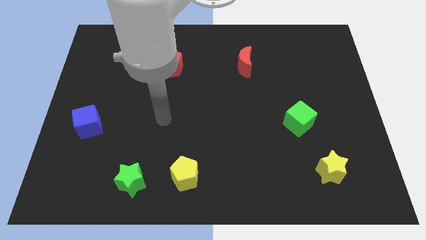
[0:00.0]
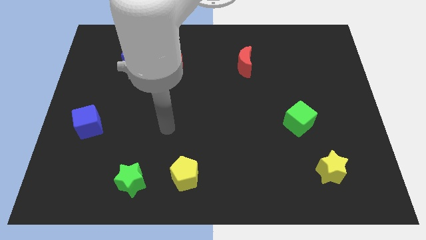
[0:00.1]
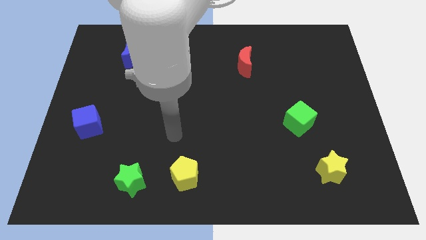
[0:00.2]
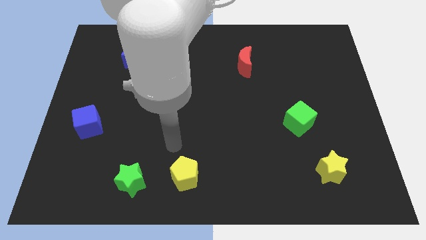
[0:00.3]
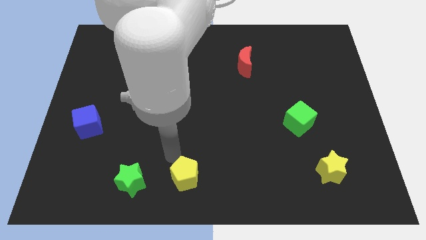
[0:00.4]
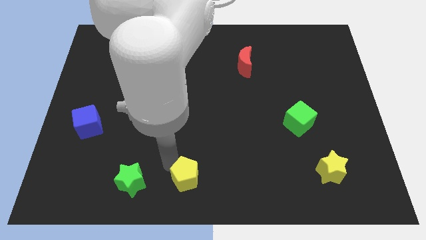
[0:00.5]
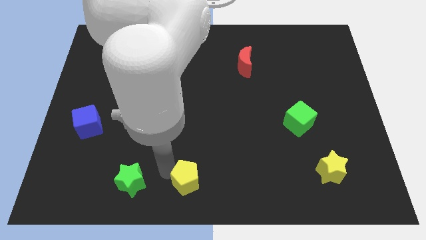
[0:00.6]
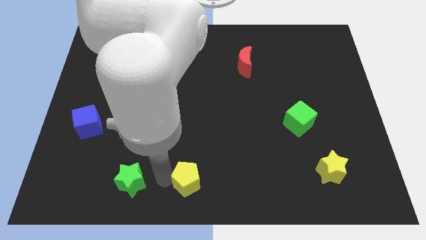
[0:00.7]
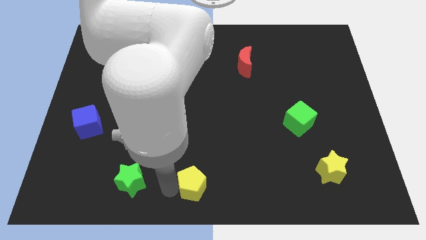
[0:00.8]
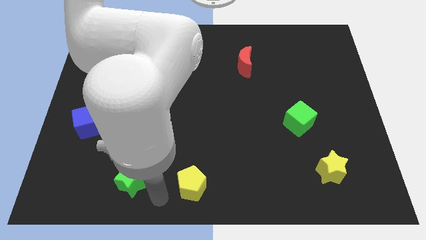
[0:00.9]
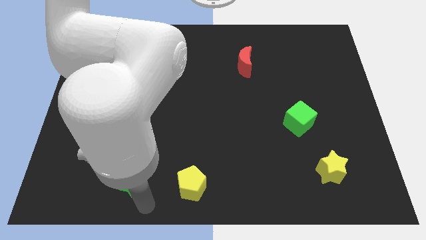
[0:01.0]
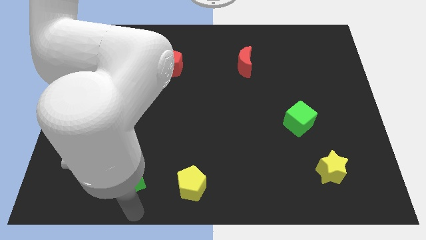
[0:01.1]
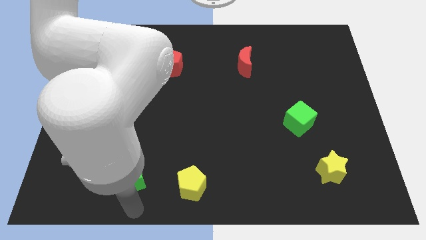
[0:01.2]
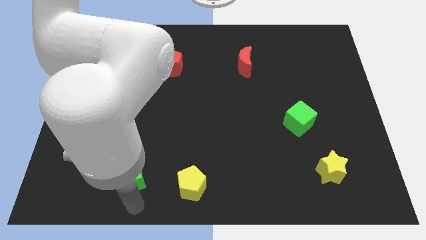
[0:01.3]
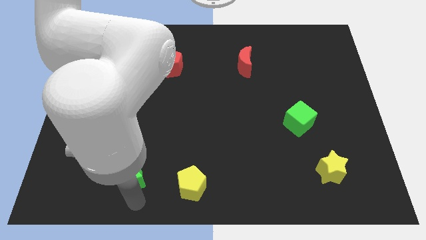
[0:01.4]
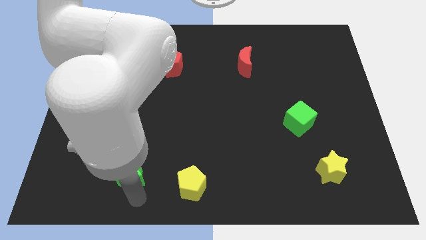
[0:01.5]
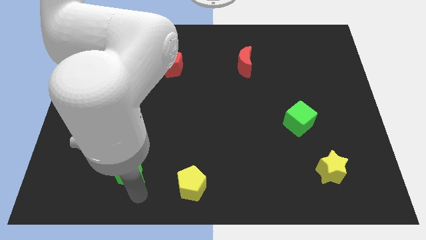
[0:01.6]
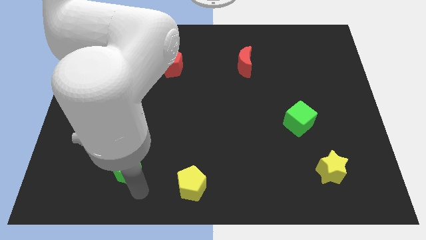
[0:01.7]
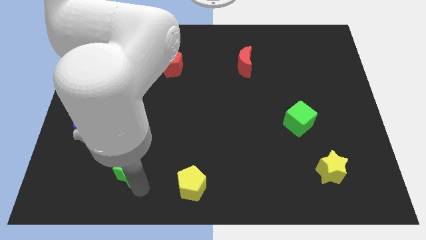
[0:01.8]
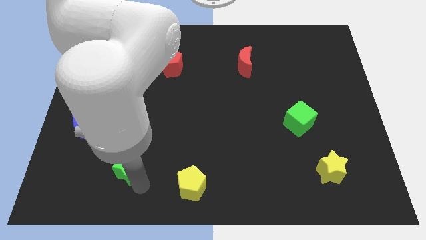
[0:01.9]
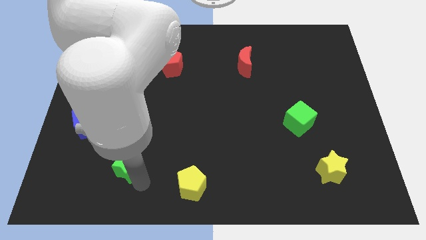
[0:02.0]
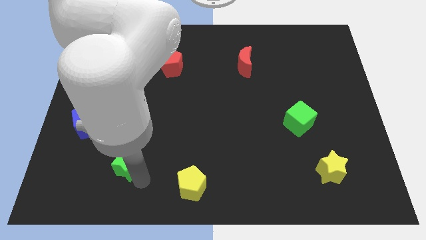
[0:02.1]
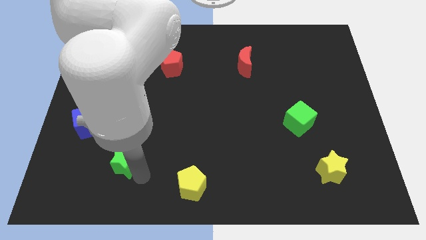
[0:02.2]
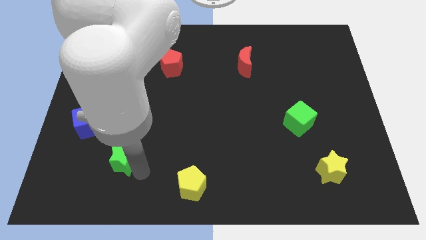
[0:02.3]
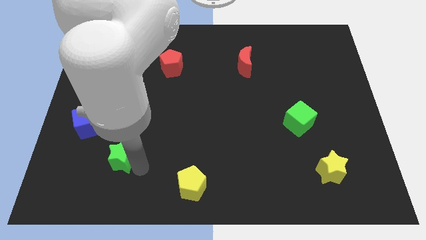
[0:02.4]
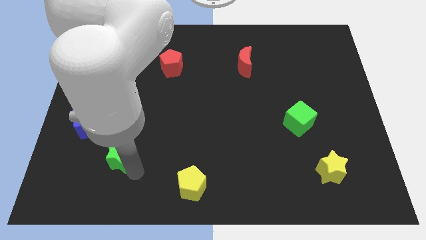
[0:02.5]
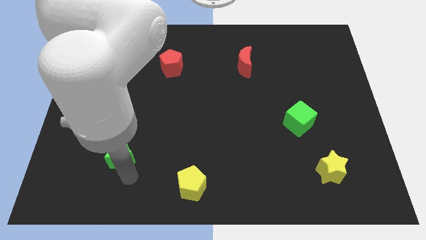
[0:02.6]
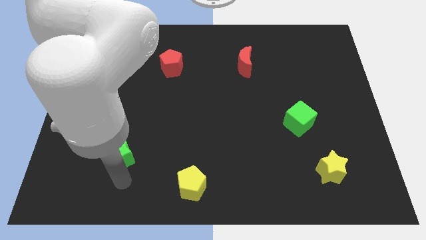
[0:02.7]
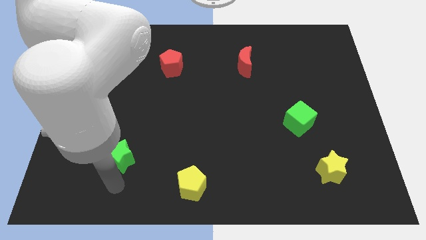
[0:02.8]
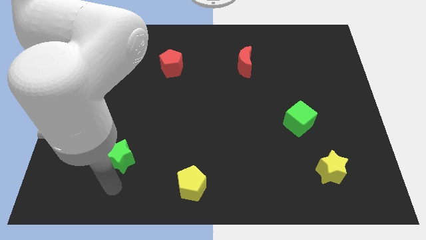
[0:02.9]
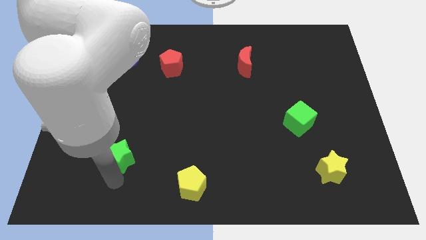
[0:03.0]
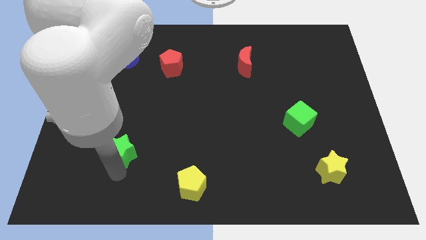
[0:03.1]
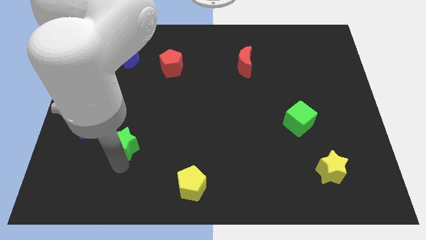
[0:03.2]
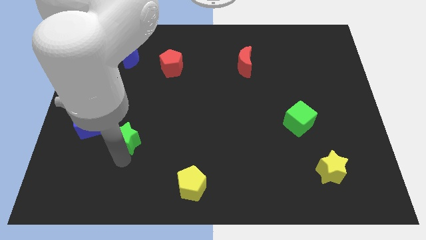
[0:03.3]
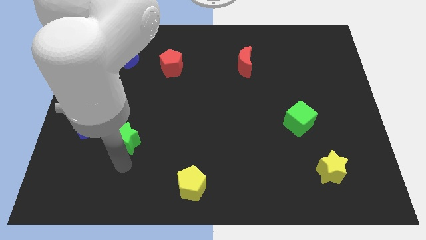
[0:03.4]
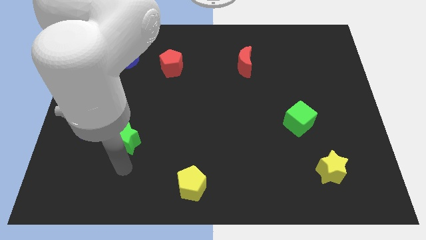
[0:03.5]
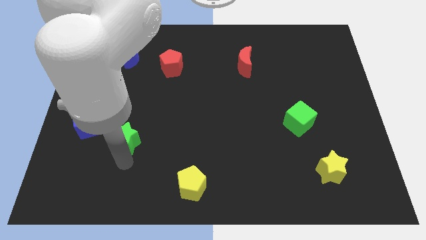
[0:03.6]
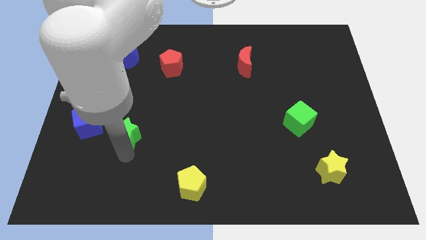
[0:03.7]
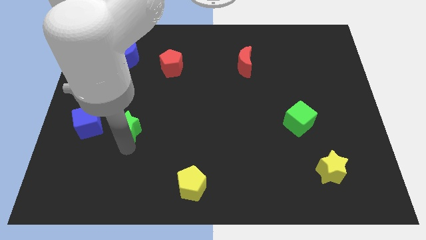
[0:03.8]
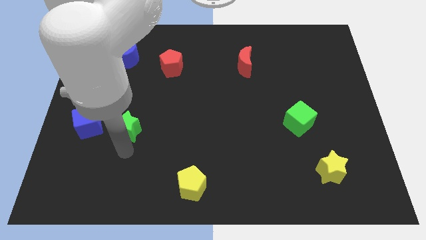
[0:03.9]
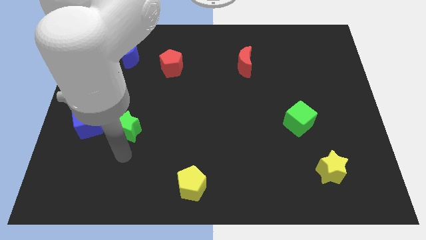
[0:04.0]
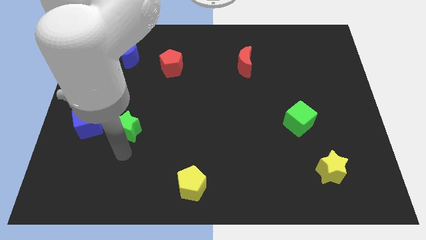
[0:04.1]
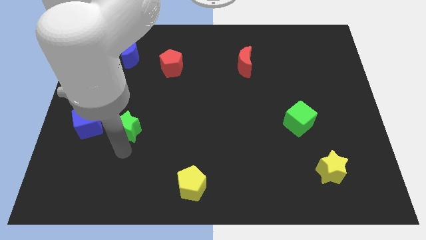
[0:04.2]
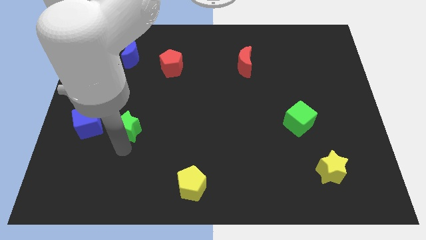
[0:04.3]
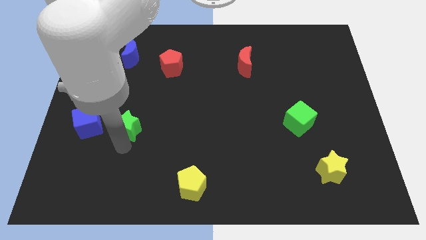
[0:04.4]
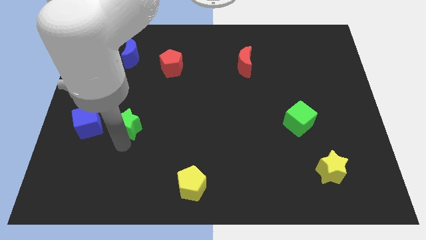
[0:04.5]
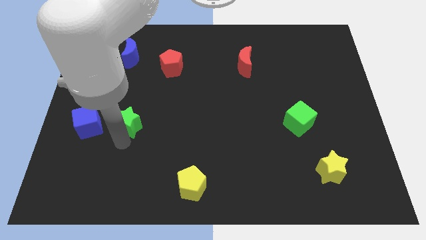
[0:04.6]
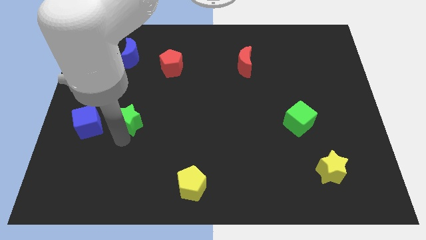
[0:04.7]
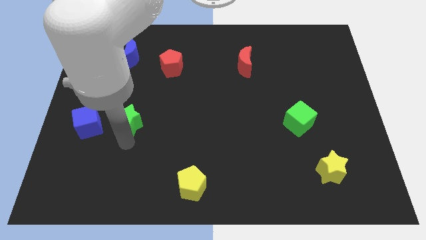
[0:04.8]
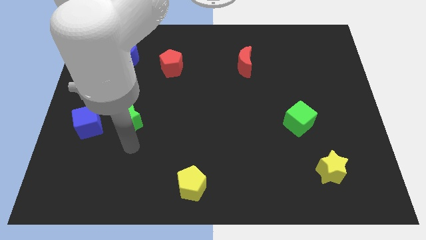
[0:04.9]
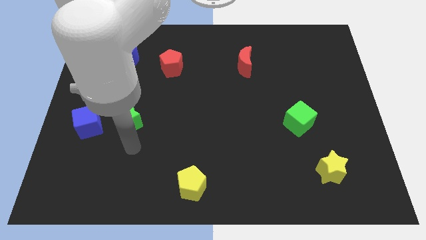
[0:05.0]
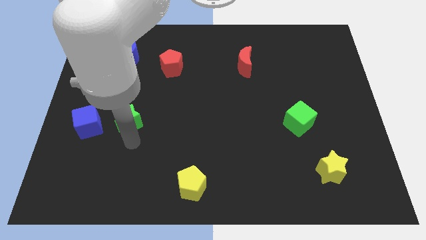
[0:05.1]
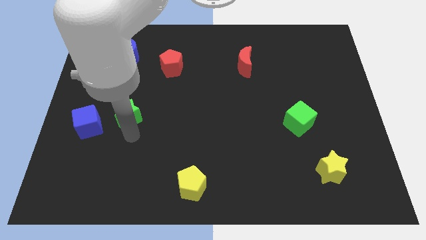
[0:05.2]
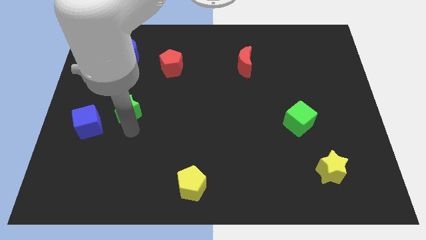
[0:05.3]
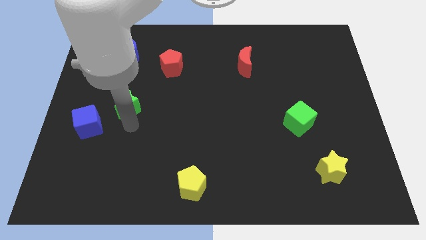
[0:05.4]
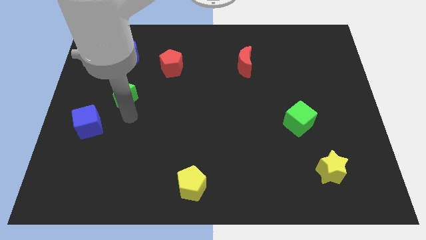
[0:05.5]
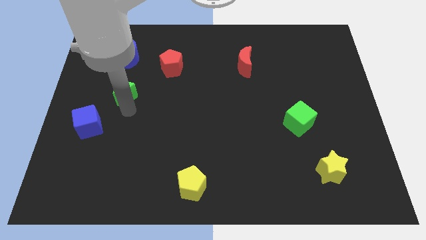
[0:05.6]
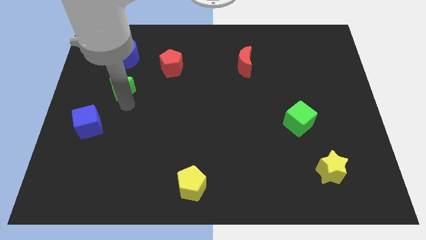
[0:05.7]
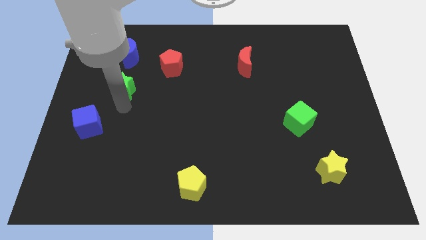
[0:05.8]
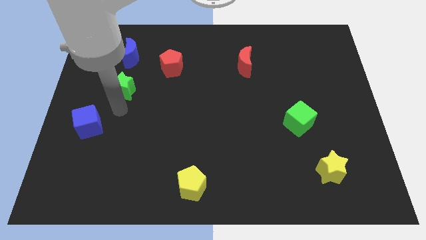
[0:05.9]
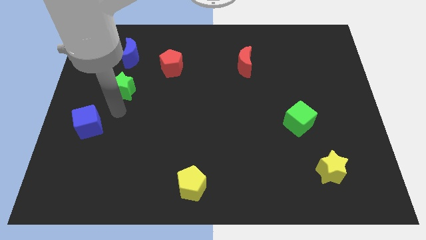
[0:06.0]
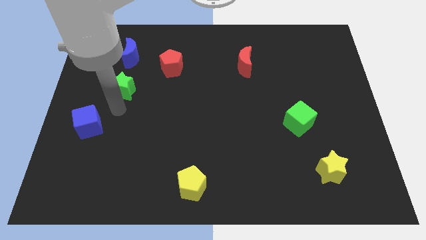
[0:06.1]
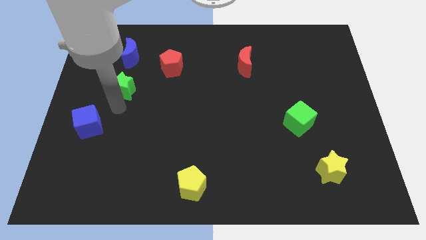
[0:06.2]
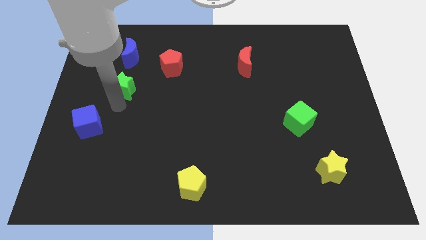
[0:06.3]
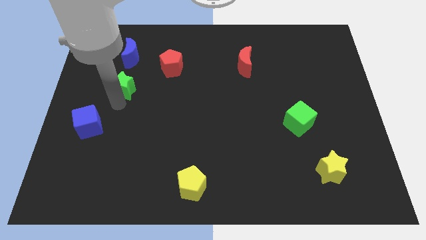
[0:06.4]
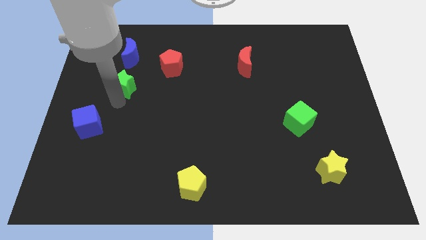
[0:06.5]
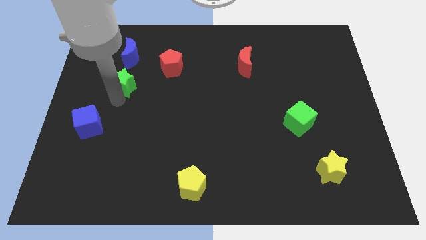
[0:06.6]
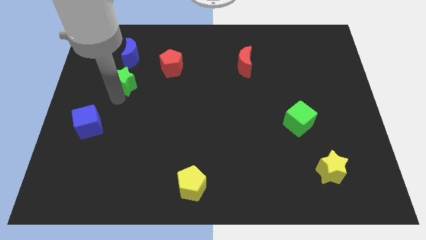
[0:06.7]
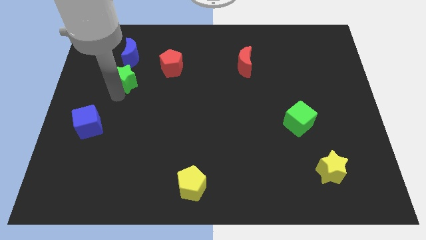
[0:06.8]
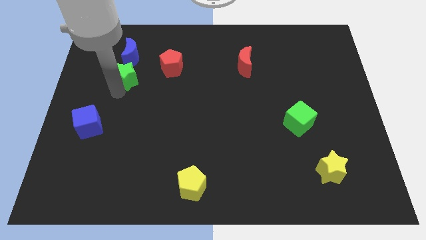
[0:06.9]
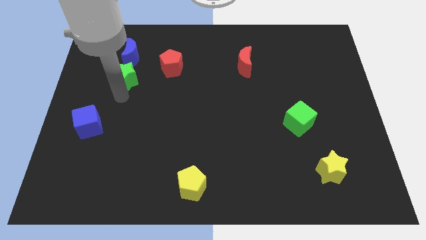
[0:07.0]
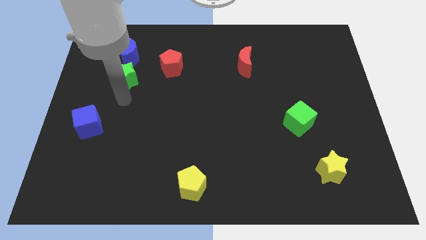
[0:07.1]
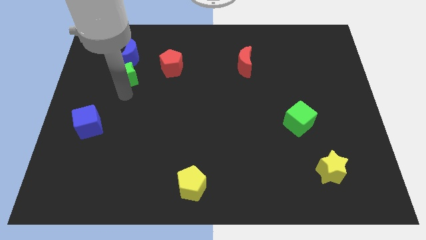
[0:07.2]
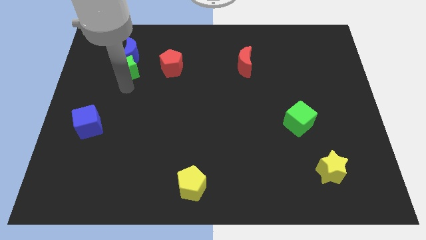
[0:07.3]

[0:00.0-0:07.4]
move the green star close to the blue moon

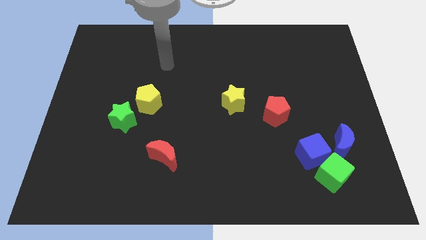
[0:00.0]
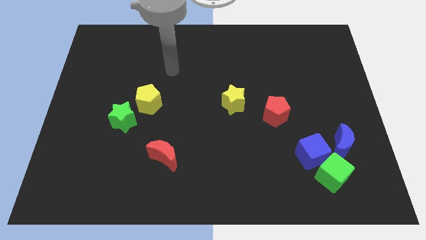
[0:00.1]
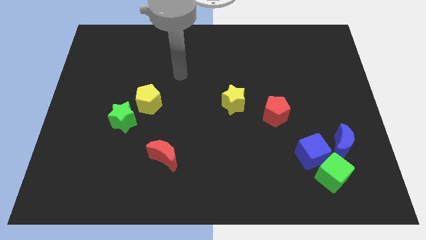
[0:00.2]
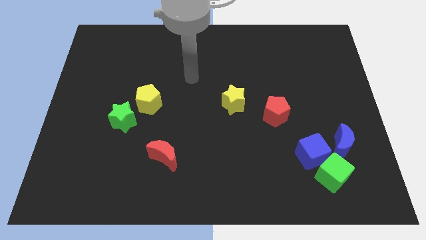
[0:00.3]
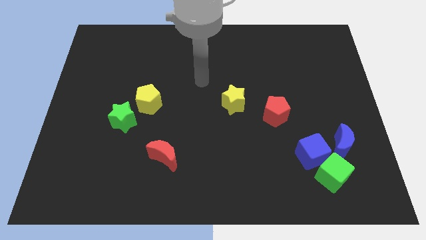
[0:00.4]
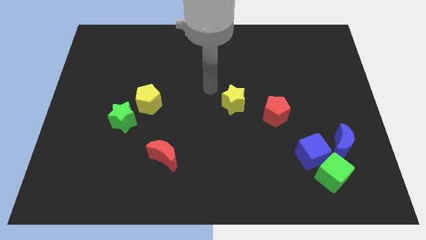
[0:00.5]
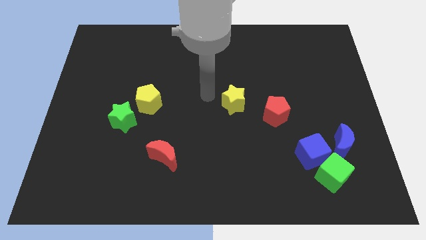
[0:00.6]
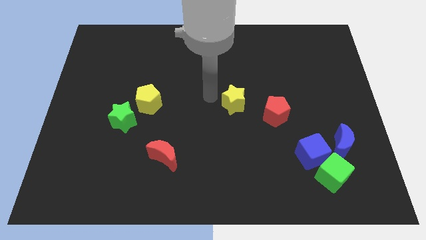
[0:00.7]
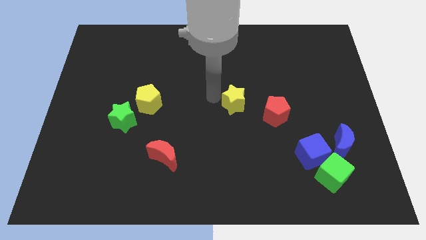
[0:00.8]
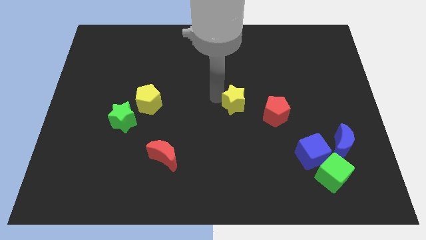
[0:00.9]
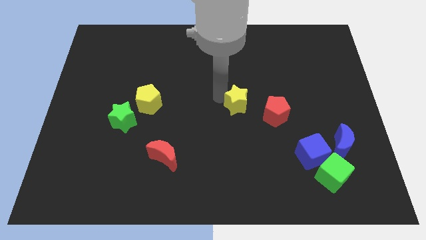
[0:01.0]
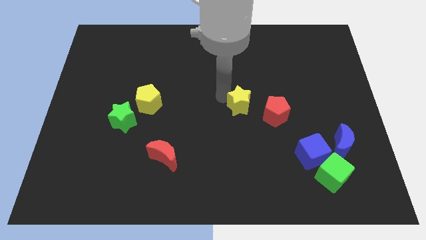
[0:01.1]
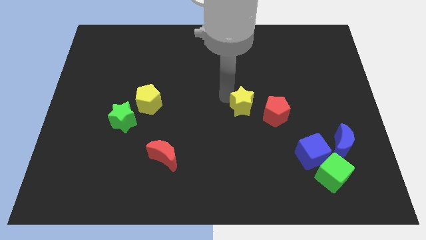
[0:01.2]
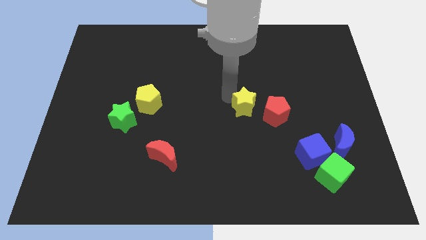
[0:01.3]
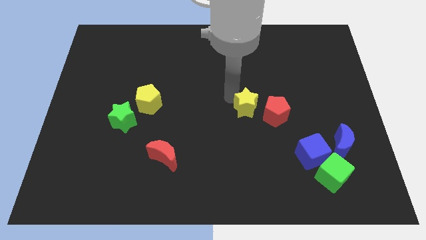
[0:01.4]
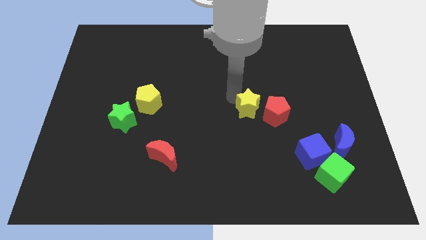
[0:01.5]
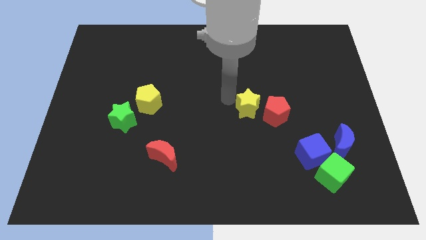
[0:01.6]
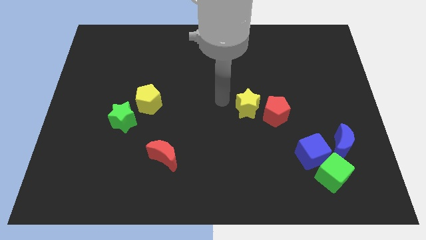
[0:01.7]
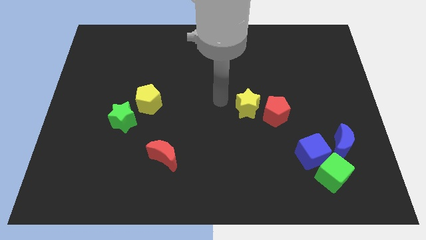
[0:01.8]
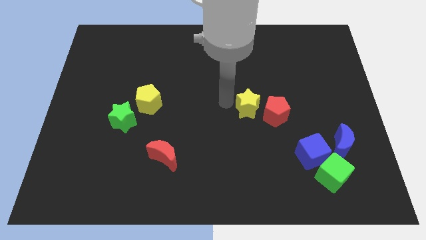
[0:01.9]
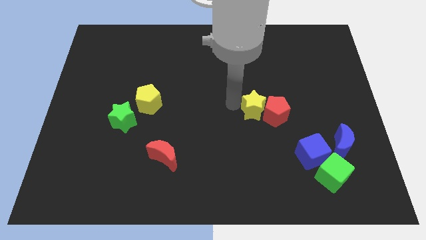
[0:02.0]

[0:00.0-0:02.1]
put the yellow star towards the red pentagon
